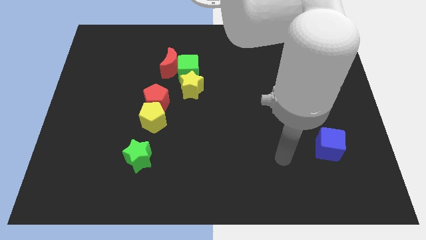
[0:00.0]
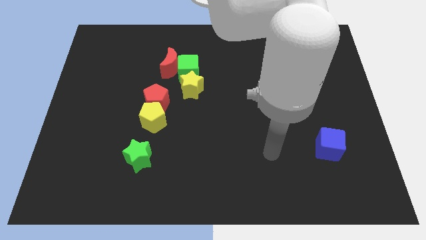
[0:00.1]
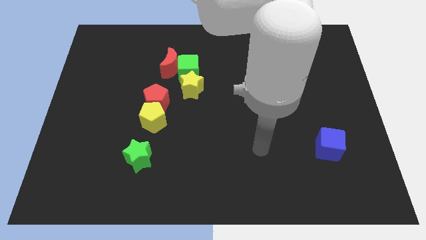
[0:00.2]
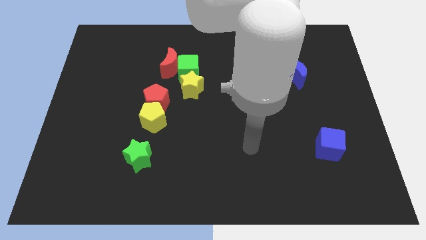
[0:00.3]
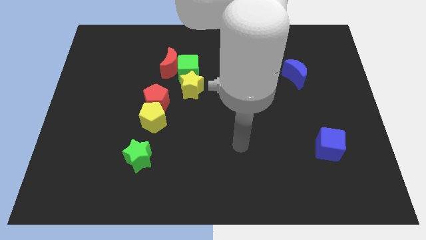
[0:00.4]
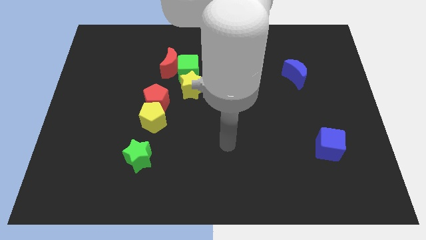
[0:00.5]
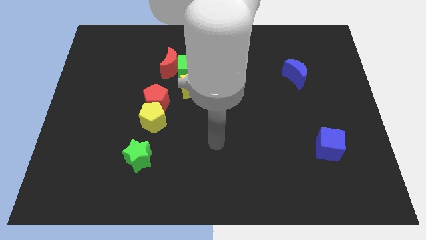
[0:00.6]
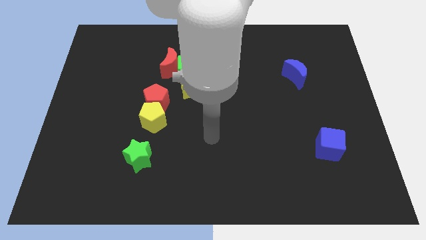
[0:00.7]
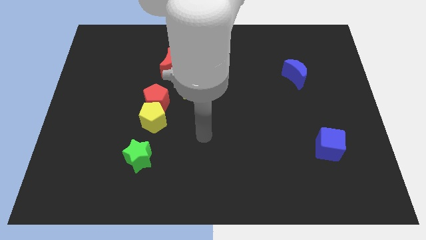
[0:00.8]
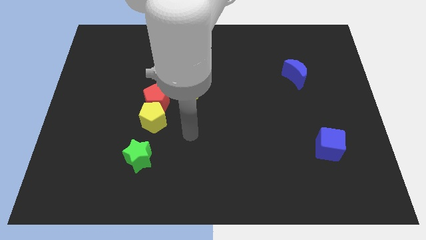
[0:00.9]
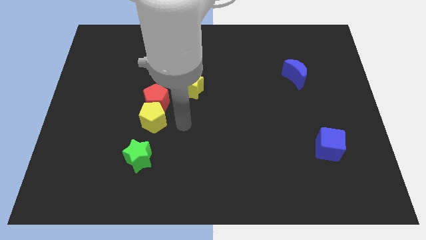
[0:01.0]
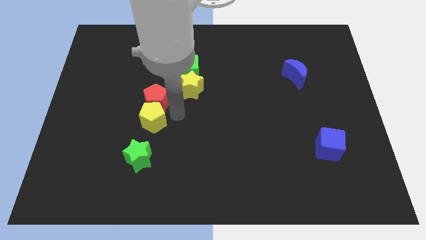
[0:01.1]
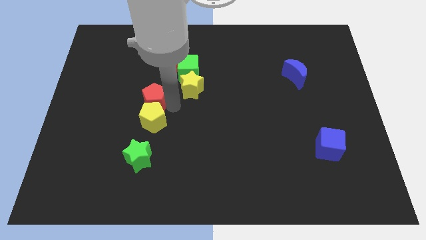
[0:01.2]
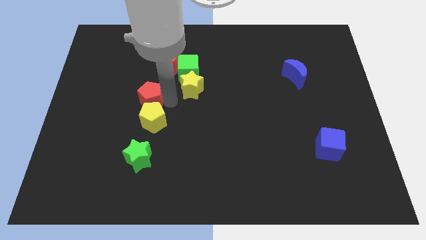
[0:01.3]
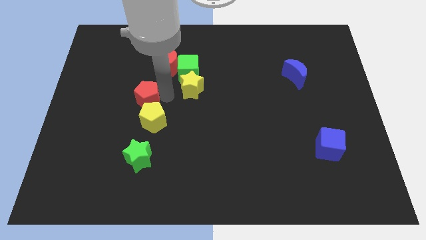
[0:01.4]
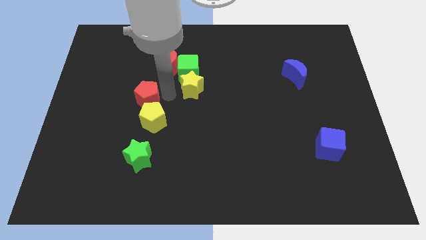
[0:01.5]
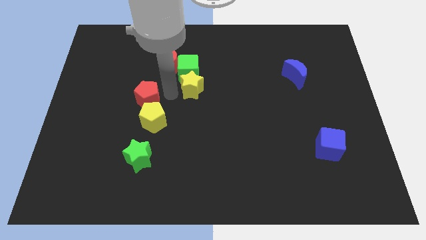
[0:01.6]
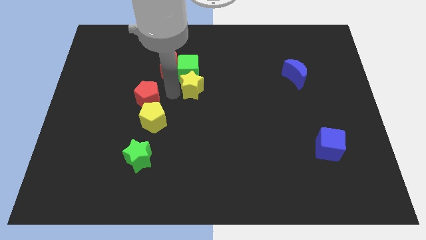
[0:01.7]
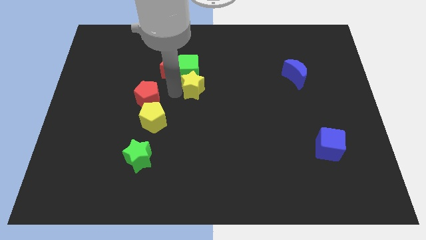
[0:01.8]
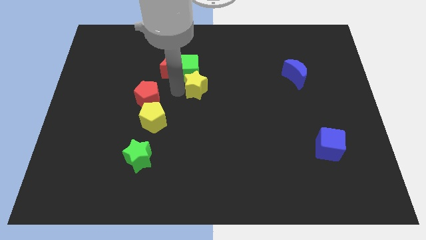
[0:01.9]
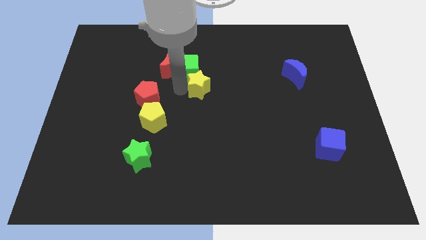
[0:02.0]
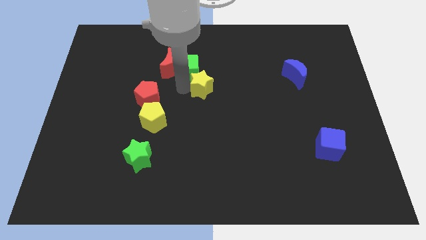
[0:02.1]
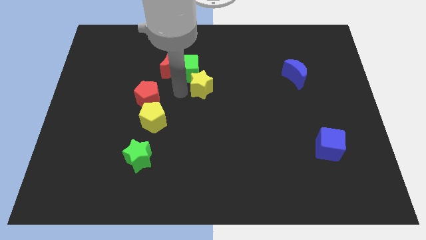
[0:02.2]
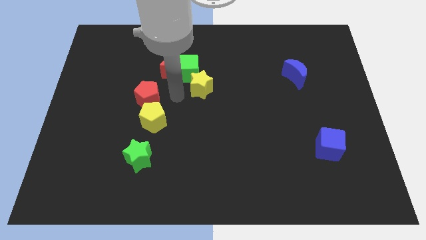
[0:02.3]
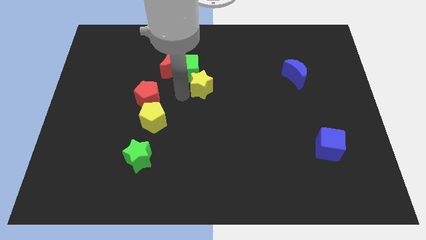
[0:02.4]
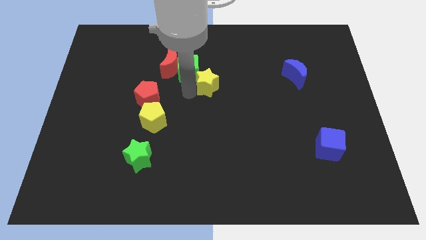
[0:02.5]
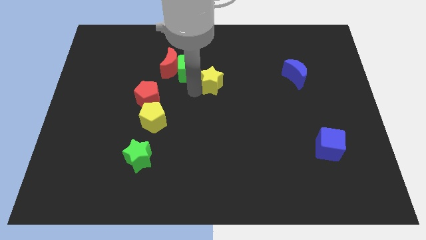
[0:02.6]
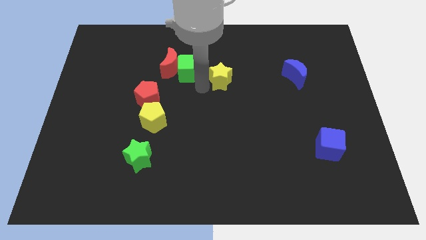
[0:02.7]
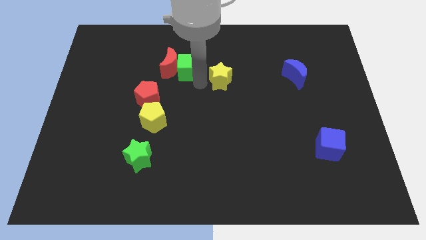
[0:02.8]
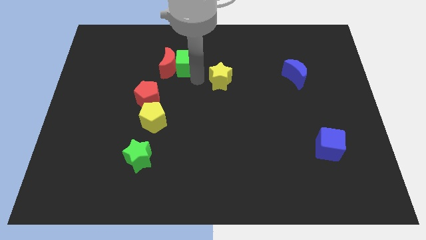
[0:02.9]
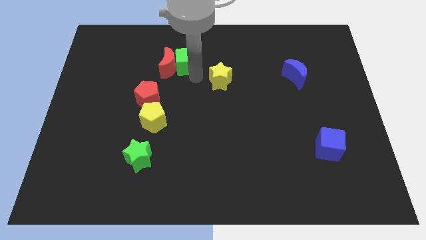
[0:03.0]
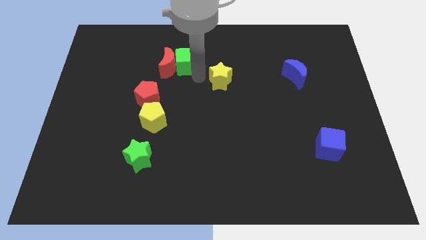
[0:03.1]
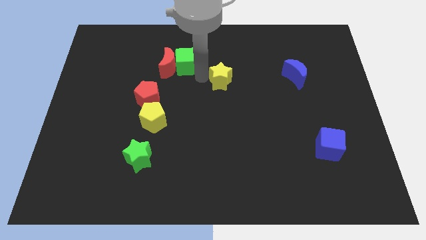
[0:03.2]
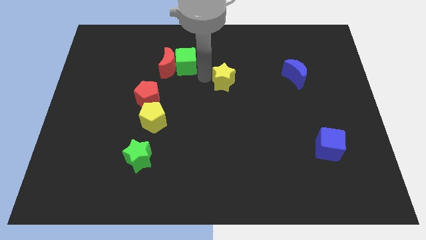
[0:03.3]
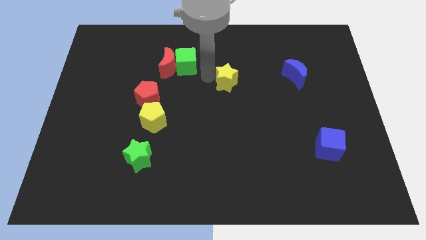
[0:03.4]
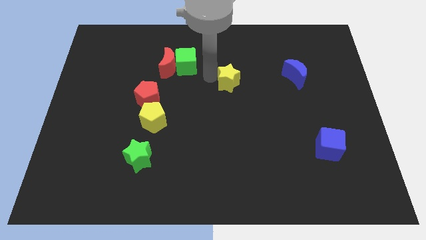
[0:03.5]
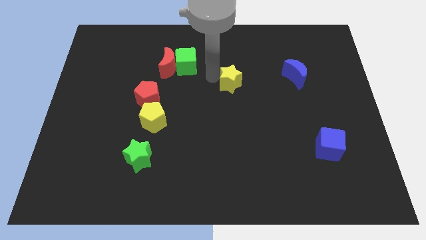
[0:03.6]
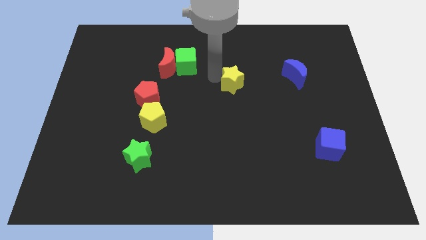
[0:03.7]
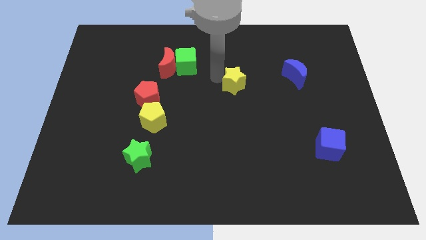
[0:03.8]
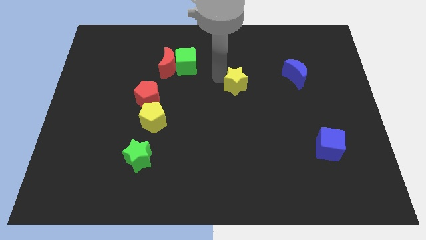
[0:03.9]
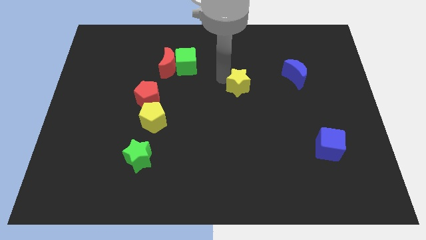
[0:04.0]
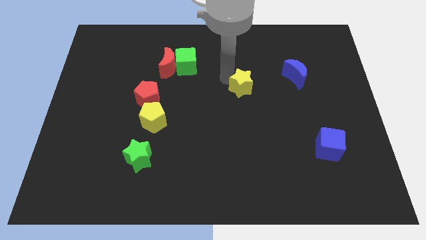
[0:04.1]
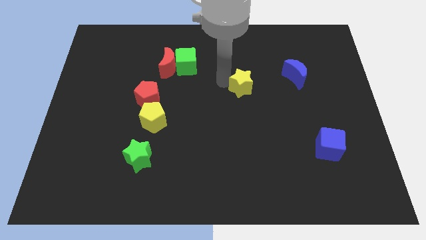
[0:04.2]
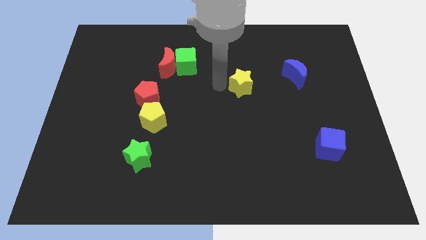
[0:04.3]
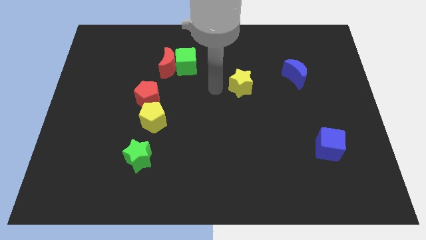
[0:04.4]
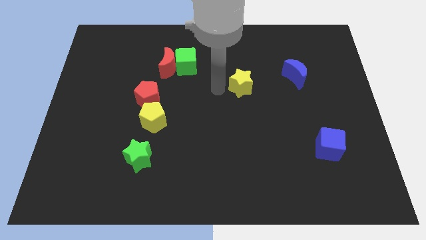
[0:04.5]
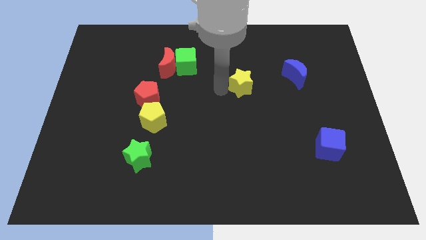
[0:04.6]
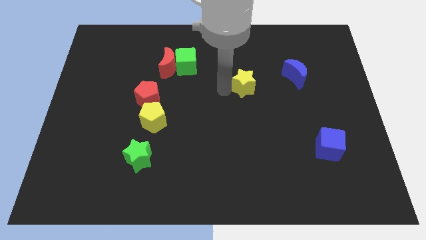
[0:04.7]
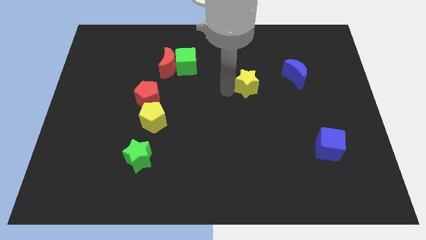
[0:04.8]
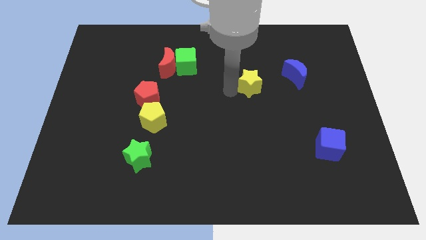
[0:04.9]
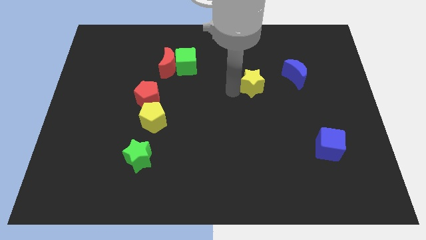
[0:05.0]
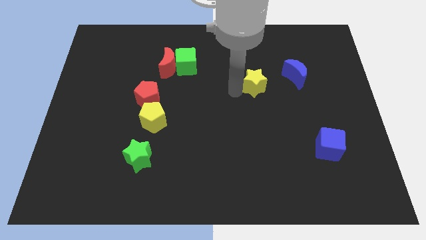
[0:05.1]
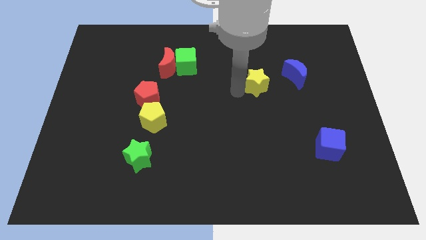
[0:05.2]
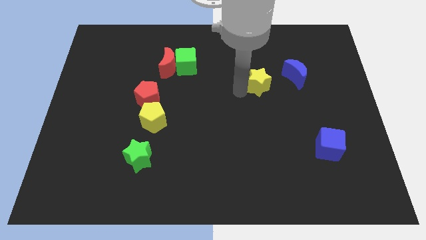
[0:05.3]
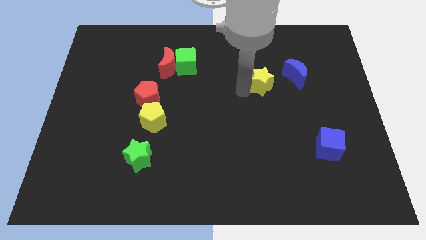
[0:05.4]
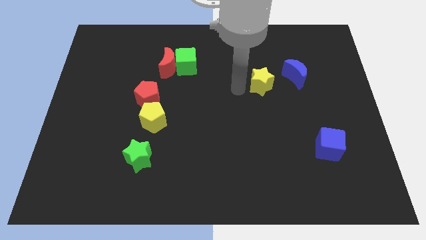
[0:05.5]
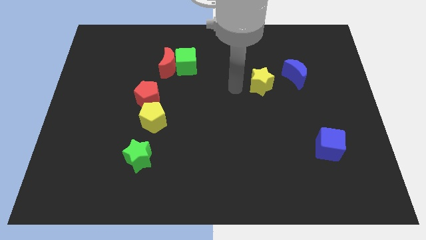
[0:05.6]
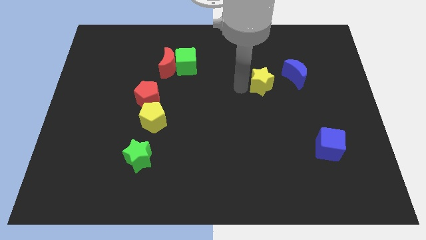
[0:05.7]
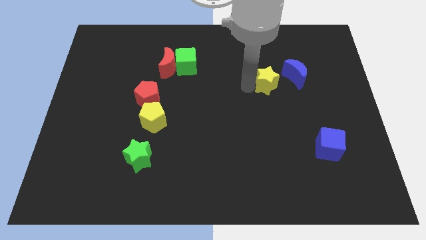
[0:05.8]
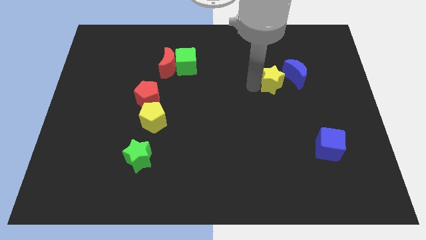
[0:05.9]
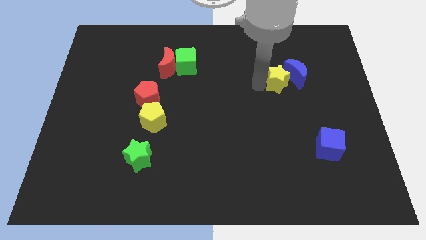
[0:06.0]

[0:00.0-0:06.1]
move the yellow star to the blue moon

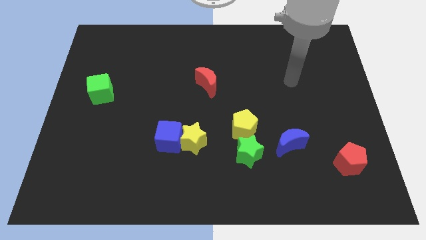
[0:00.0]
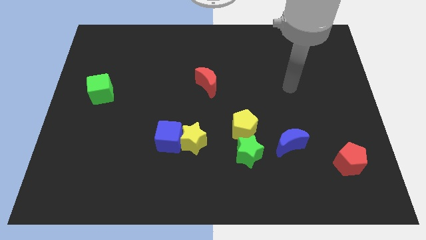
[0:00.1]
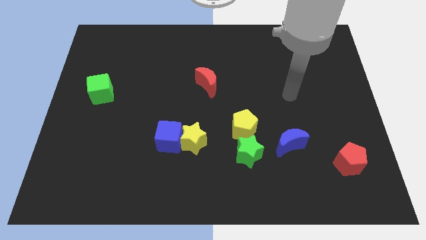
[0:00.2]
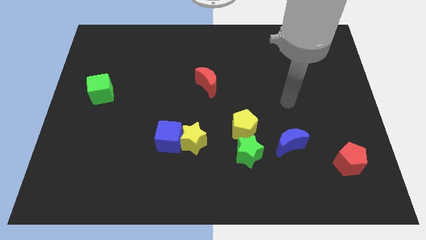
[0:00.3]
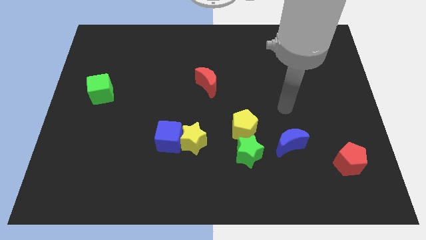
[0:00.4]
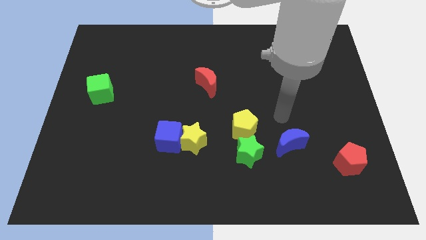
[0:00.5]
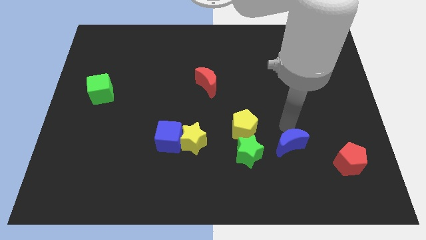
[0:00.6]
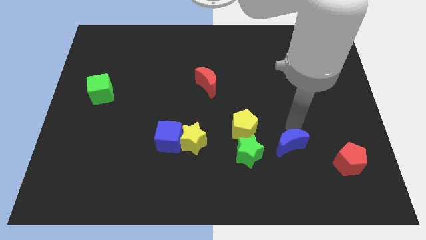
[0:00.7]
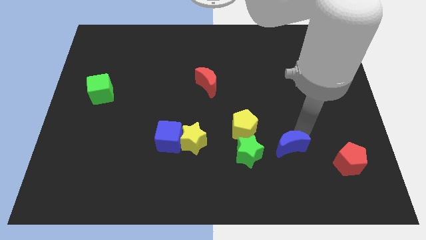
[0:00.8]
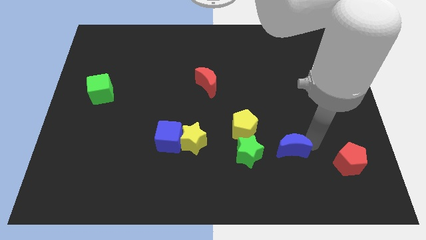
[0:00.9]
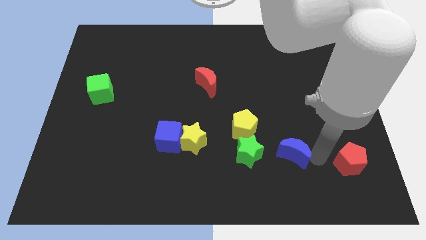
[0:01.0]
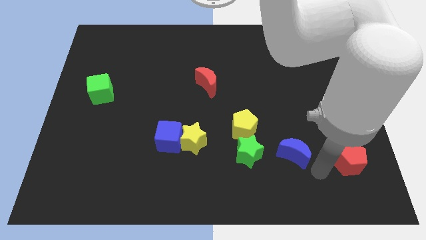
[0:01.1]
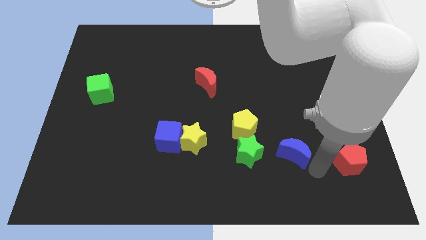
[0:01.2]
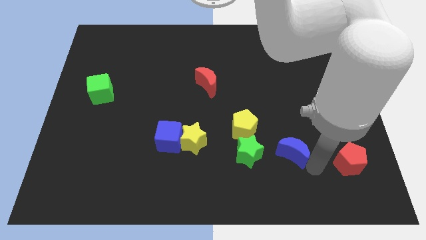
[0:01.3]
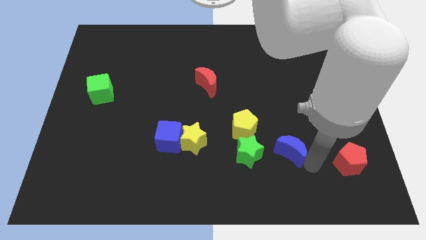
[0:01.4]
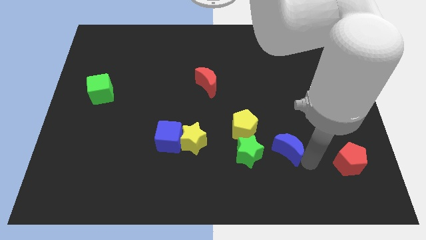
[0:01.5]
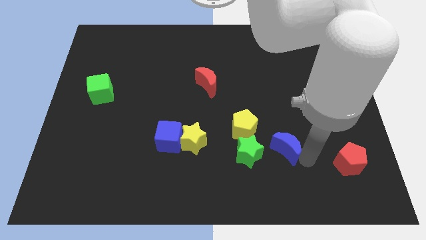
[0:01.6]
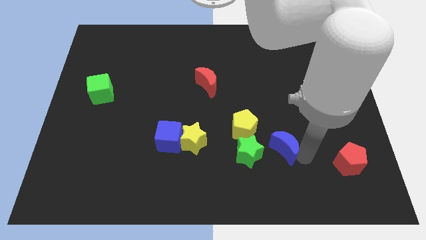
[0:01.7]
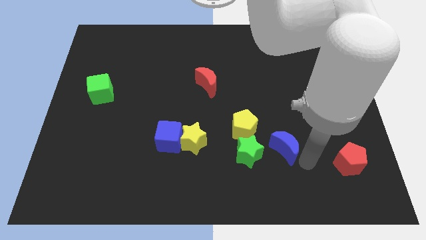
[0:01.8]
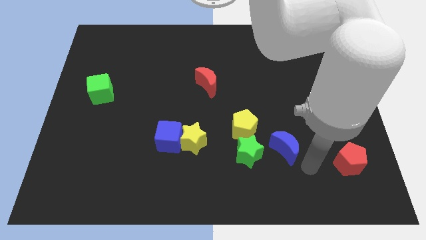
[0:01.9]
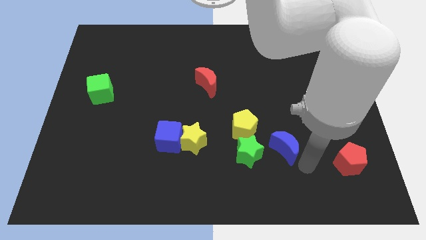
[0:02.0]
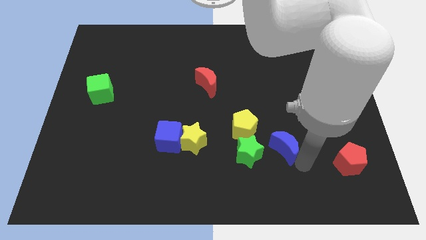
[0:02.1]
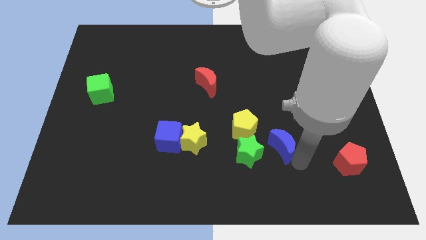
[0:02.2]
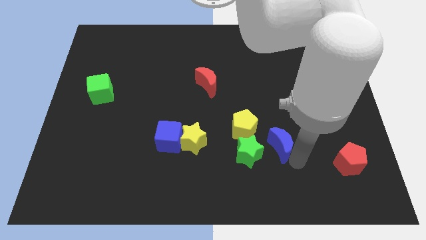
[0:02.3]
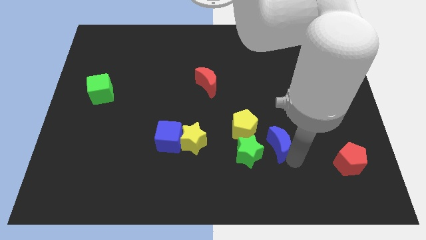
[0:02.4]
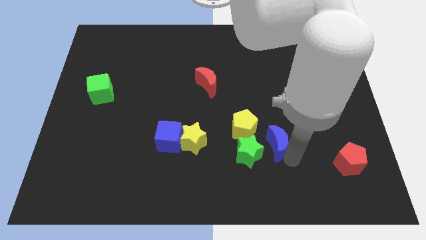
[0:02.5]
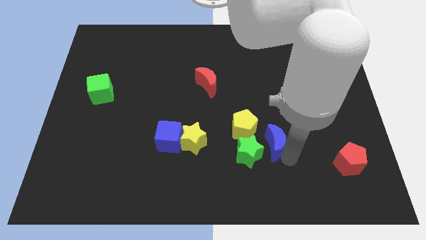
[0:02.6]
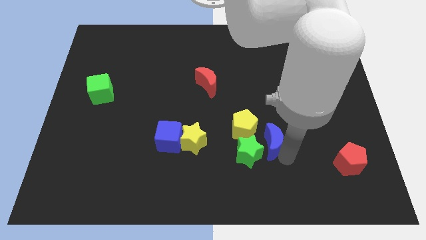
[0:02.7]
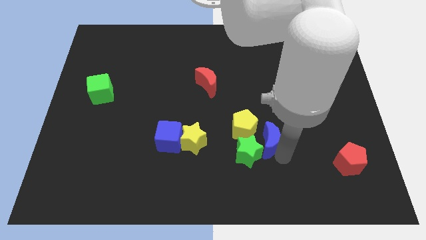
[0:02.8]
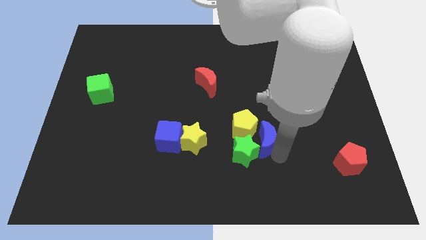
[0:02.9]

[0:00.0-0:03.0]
move the blue moon to the yellow pentagon
